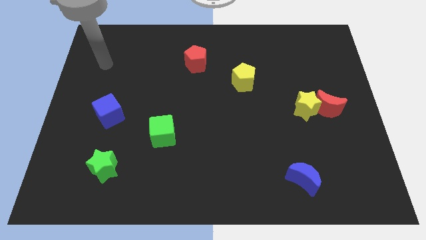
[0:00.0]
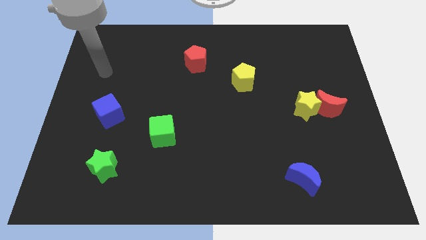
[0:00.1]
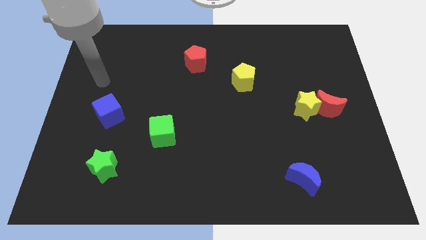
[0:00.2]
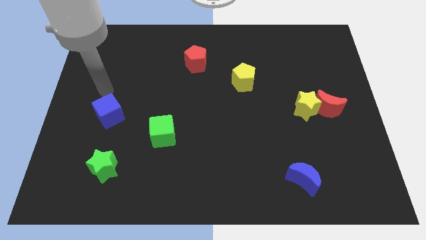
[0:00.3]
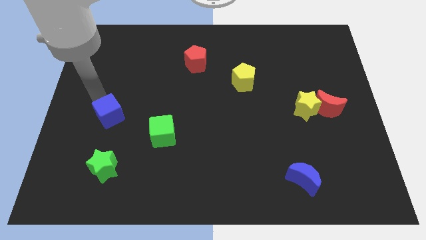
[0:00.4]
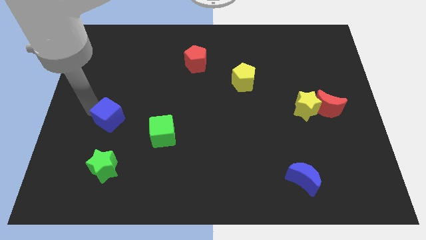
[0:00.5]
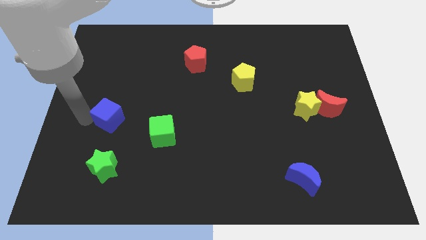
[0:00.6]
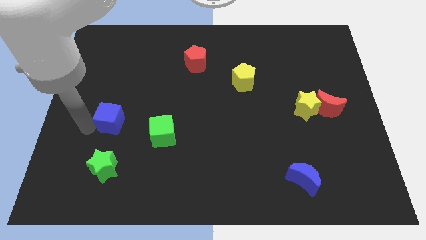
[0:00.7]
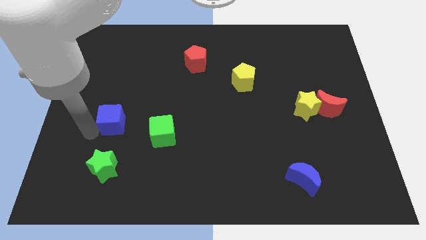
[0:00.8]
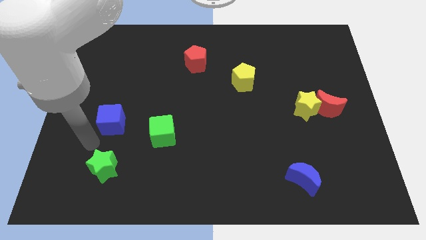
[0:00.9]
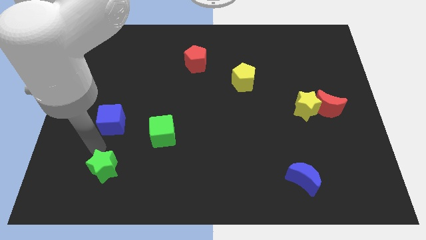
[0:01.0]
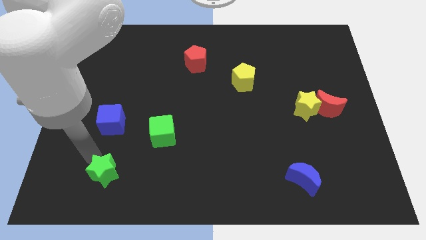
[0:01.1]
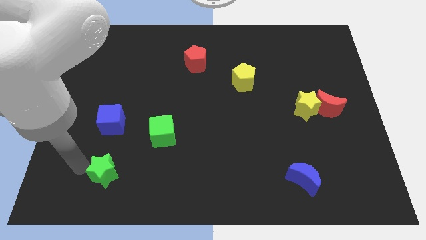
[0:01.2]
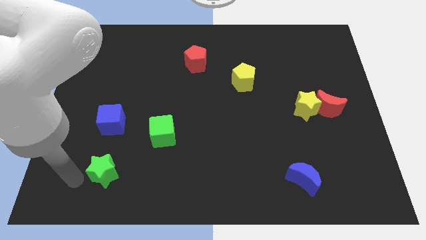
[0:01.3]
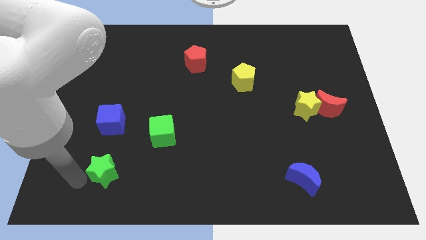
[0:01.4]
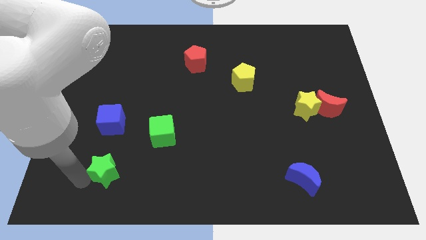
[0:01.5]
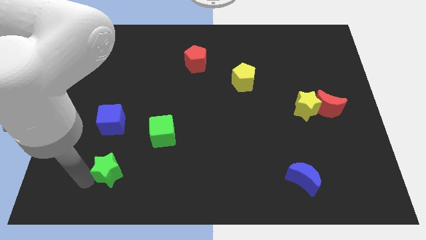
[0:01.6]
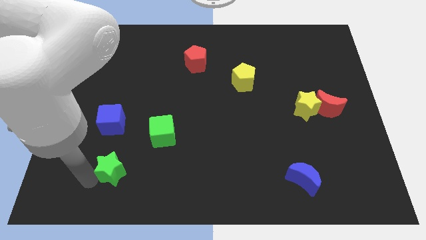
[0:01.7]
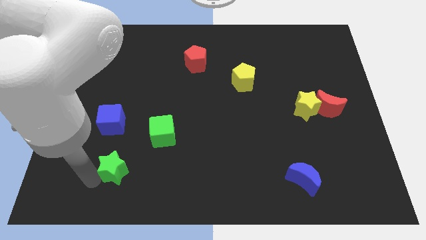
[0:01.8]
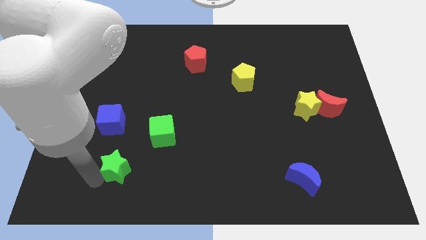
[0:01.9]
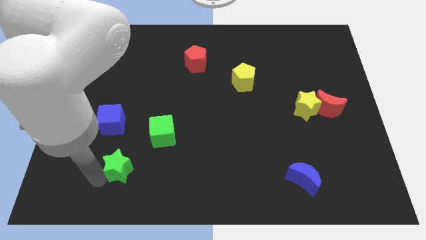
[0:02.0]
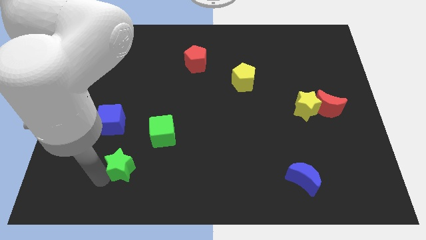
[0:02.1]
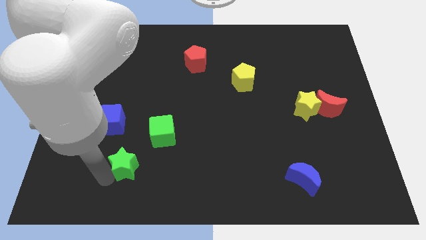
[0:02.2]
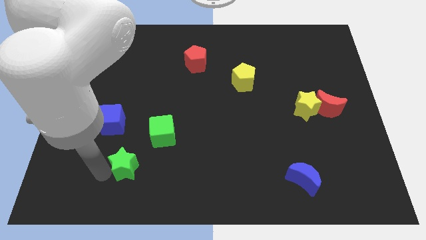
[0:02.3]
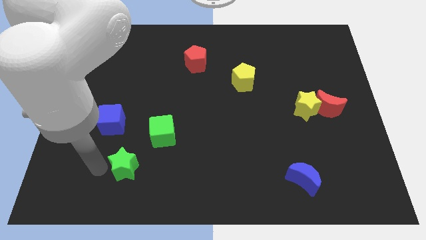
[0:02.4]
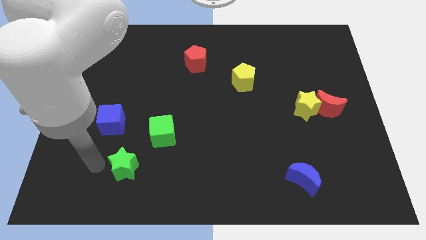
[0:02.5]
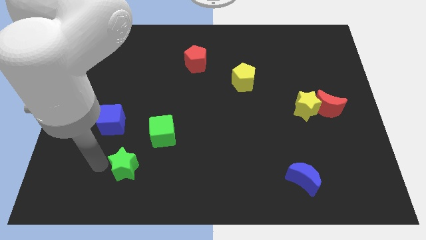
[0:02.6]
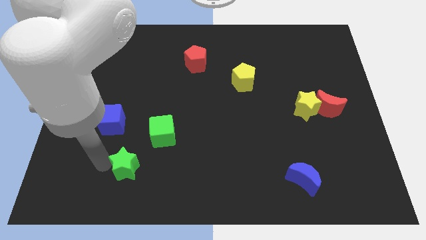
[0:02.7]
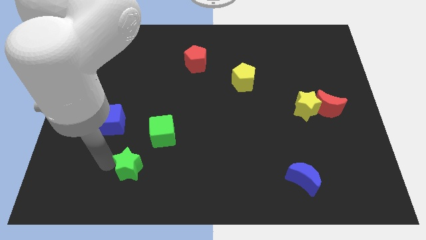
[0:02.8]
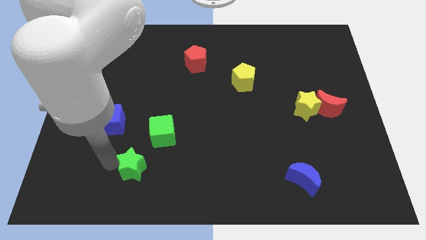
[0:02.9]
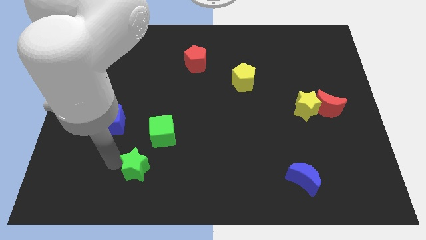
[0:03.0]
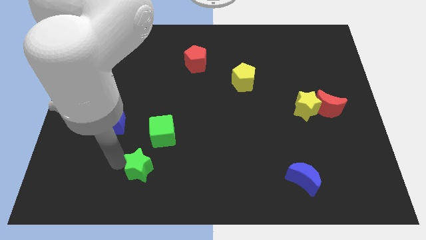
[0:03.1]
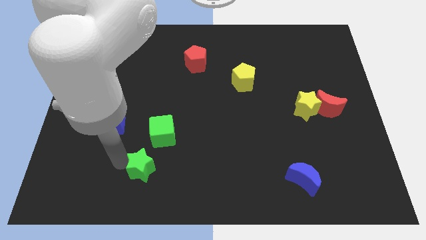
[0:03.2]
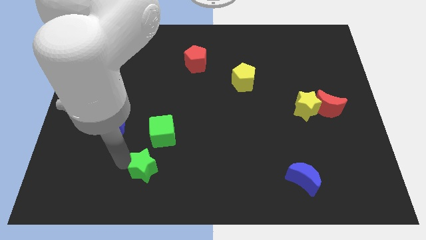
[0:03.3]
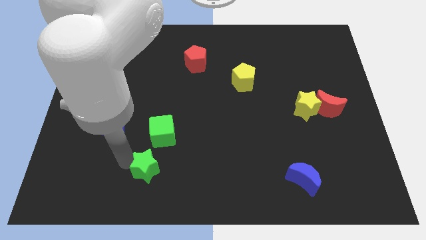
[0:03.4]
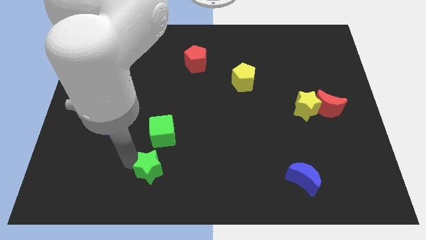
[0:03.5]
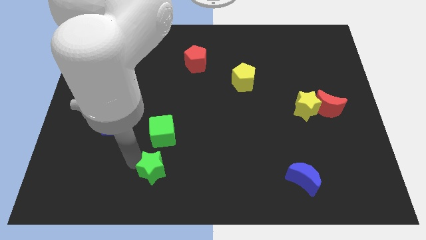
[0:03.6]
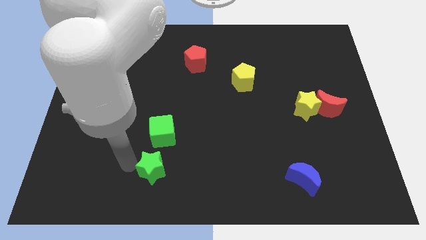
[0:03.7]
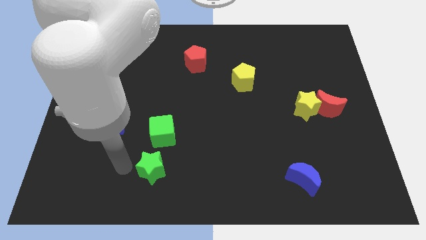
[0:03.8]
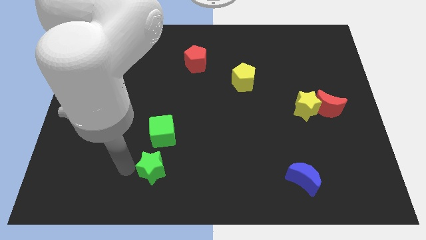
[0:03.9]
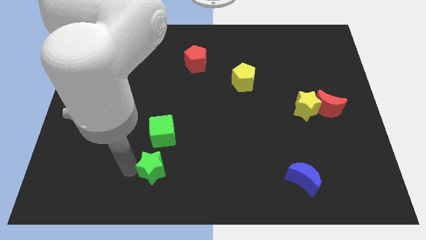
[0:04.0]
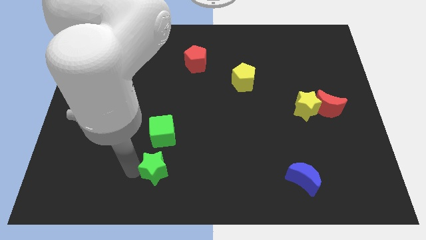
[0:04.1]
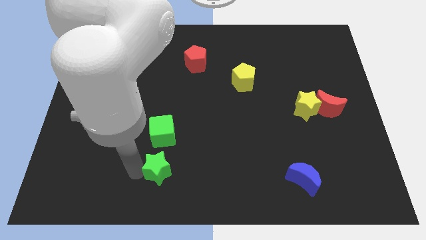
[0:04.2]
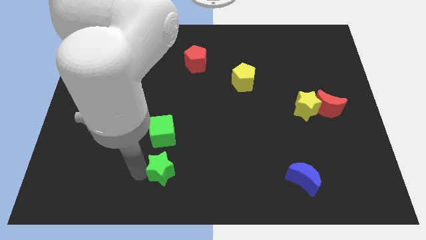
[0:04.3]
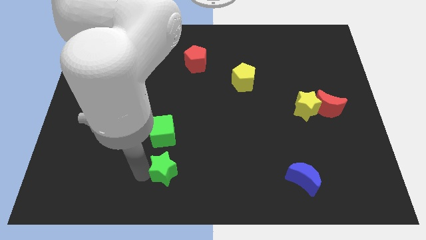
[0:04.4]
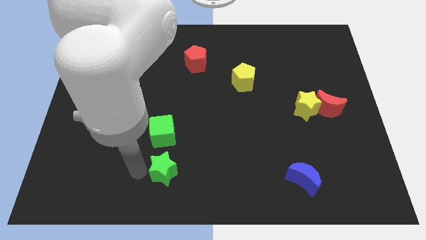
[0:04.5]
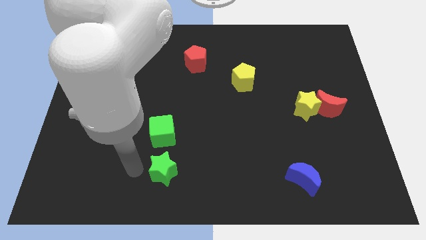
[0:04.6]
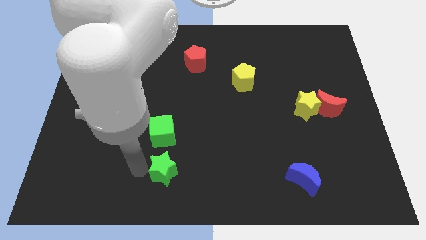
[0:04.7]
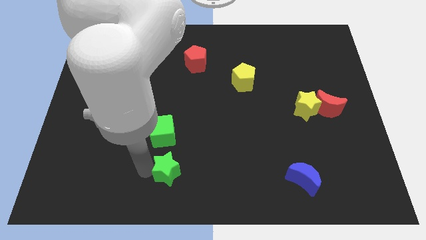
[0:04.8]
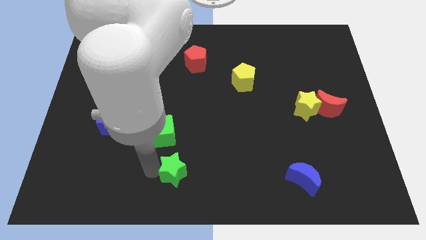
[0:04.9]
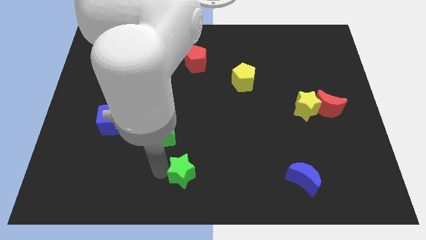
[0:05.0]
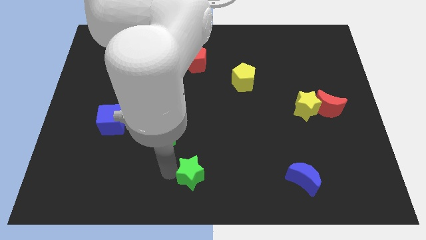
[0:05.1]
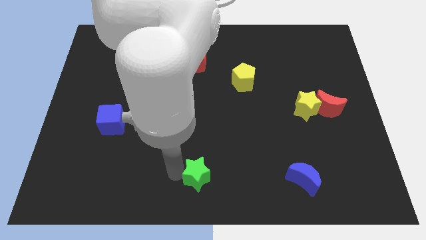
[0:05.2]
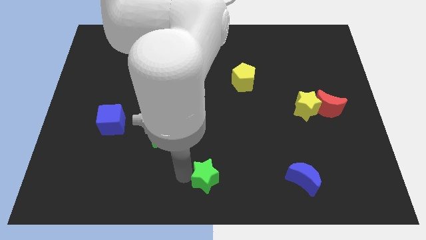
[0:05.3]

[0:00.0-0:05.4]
push the green star to the right

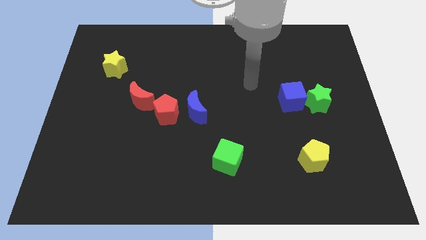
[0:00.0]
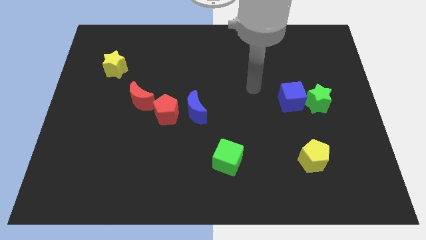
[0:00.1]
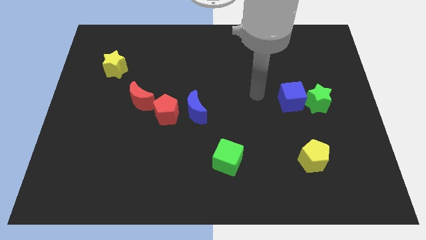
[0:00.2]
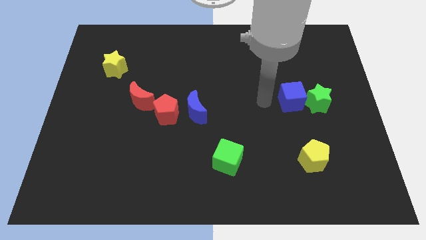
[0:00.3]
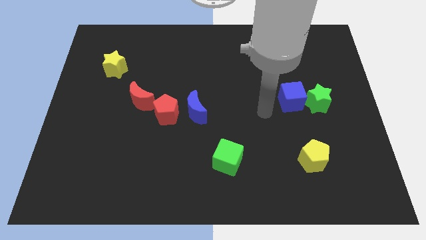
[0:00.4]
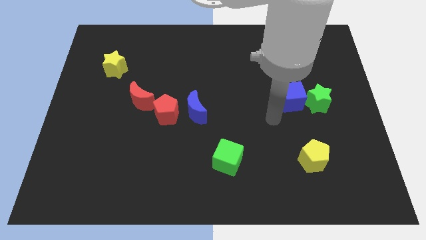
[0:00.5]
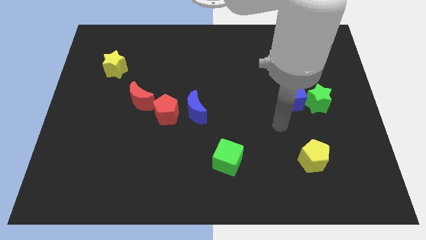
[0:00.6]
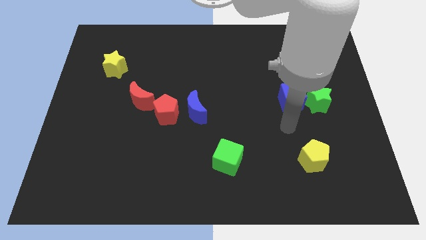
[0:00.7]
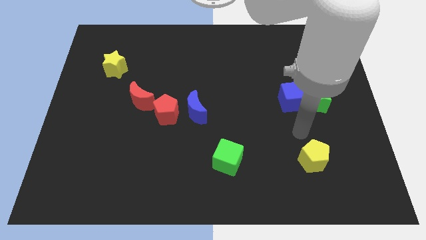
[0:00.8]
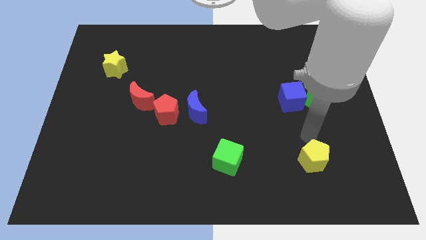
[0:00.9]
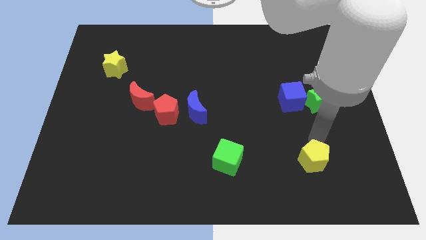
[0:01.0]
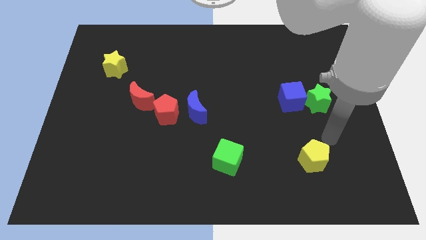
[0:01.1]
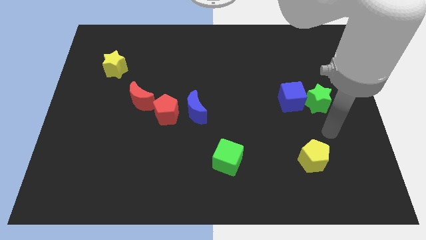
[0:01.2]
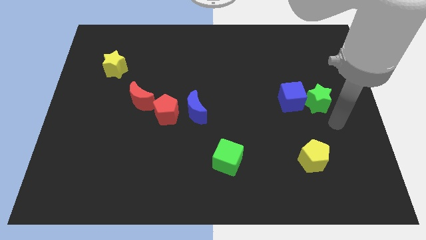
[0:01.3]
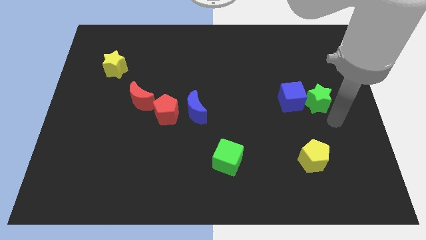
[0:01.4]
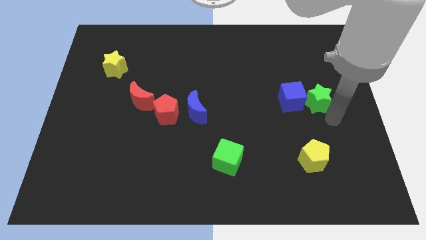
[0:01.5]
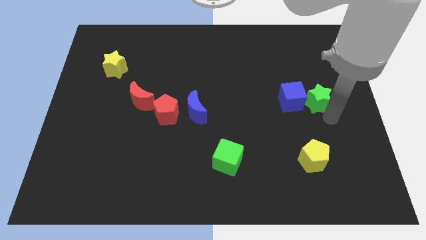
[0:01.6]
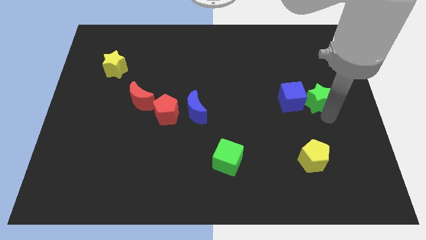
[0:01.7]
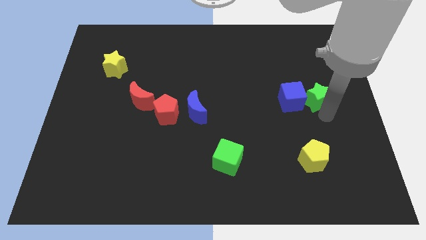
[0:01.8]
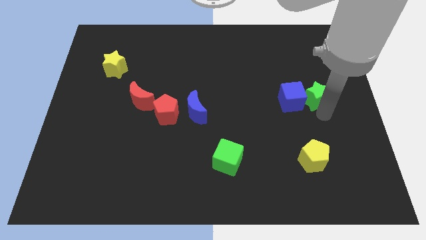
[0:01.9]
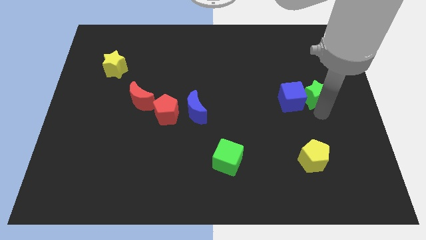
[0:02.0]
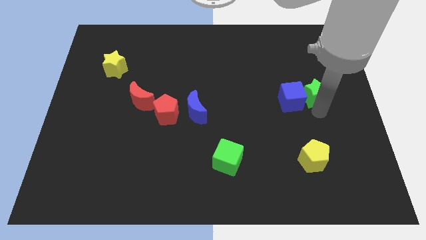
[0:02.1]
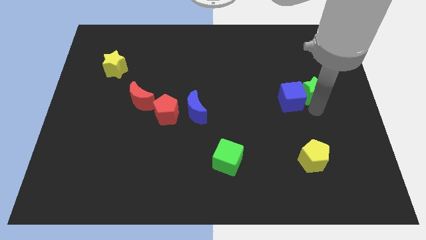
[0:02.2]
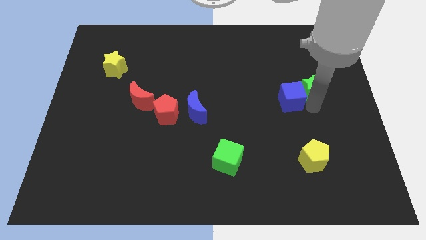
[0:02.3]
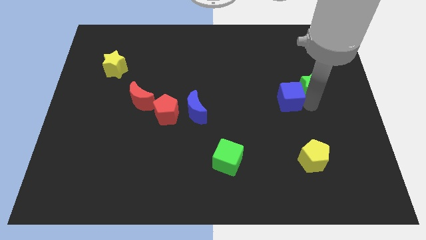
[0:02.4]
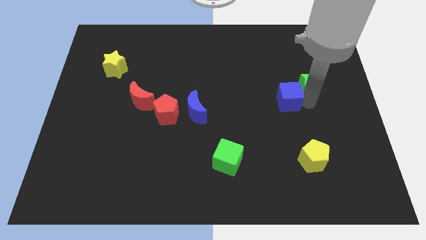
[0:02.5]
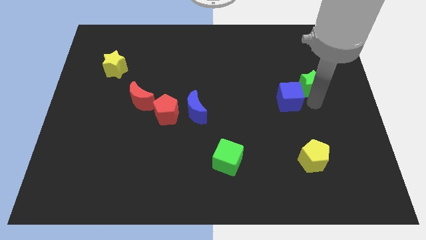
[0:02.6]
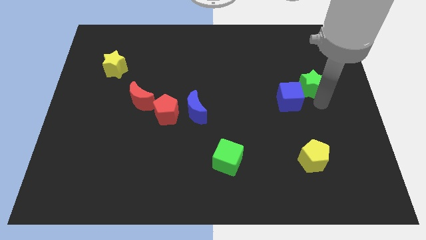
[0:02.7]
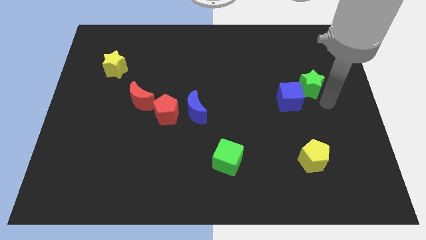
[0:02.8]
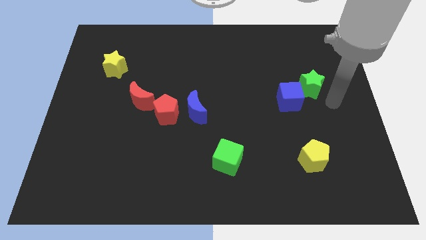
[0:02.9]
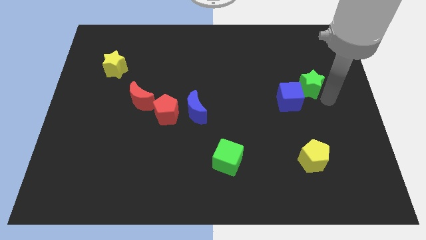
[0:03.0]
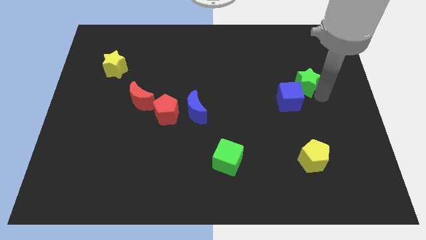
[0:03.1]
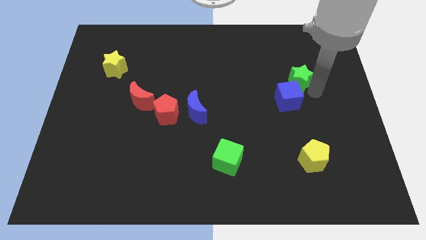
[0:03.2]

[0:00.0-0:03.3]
push the green star upwards and to the left a bit
